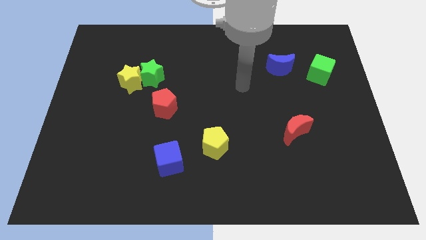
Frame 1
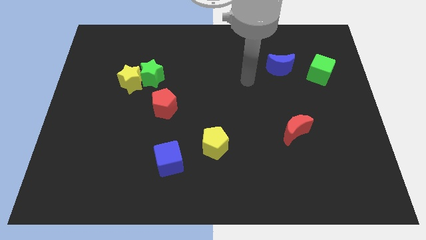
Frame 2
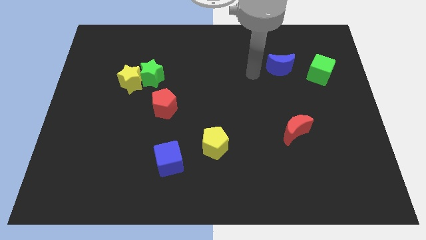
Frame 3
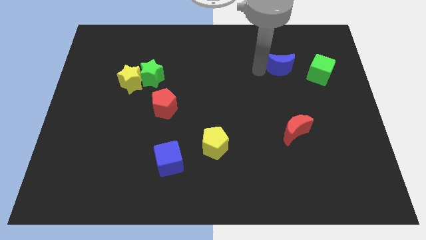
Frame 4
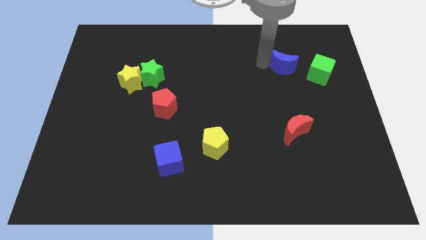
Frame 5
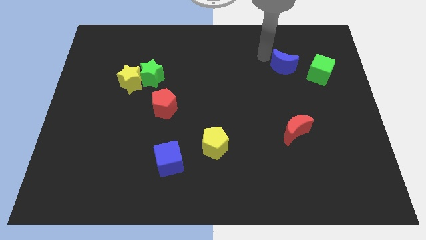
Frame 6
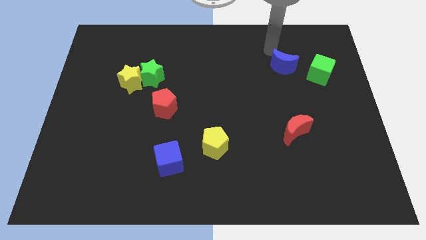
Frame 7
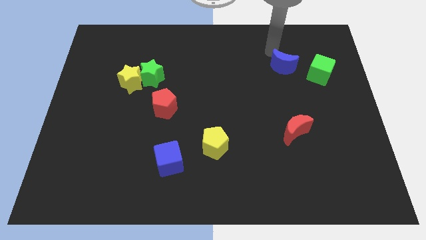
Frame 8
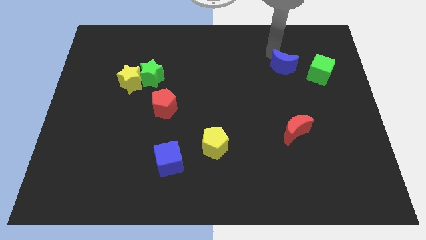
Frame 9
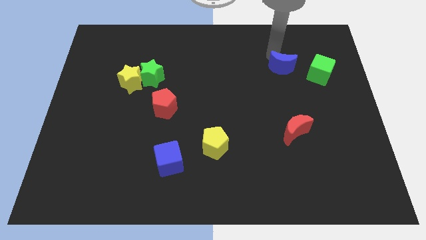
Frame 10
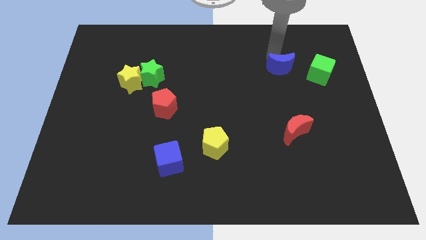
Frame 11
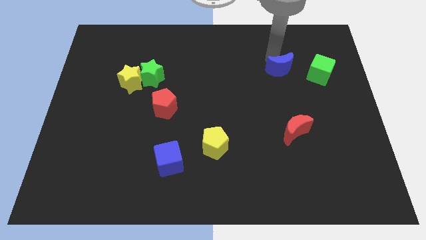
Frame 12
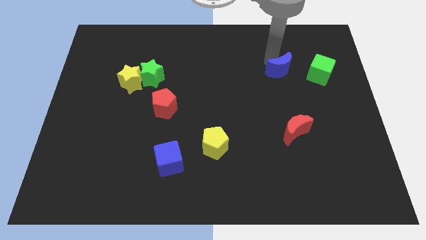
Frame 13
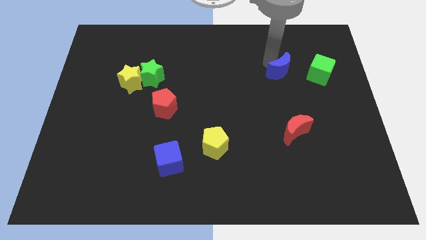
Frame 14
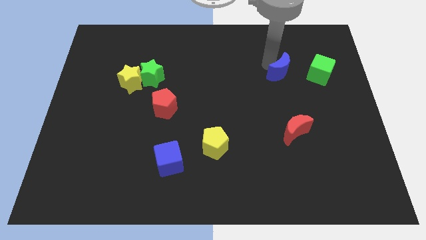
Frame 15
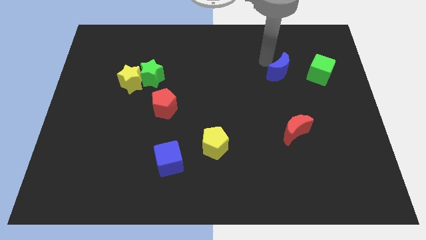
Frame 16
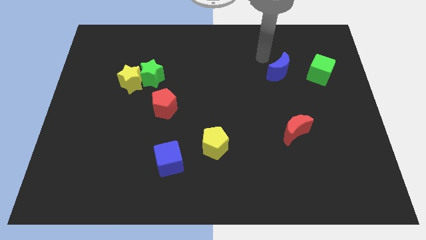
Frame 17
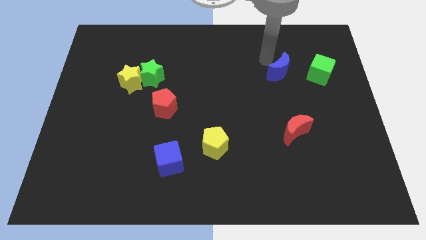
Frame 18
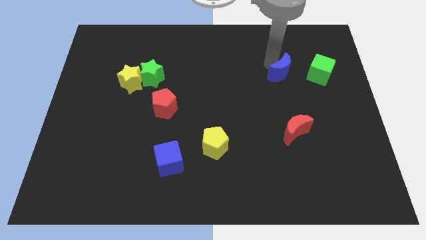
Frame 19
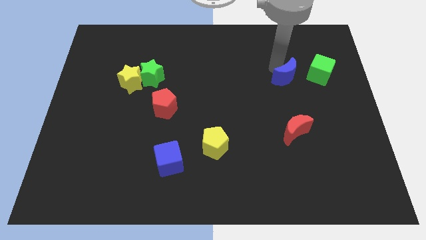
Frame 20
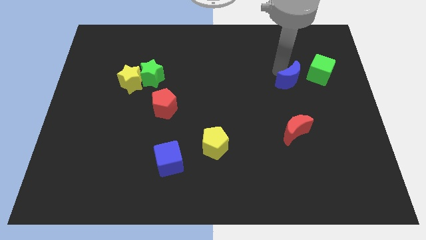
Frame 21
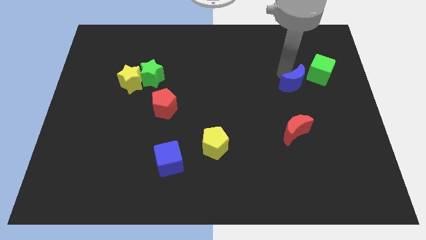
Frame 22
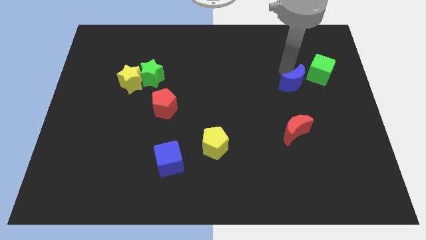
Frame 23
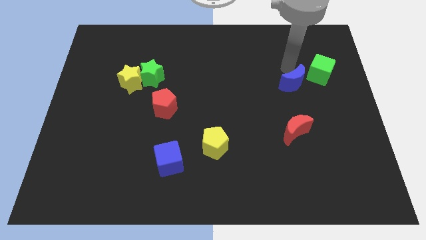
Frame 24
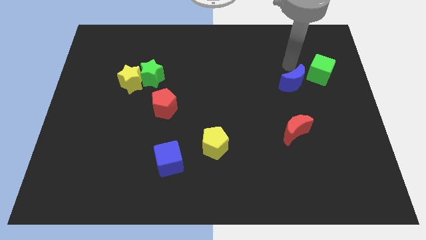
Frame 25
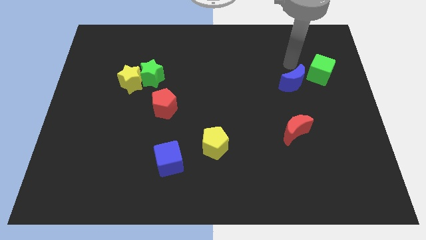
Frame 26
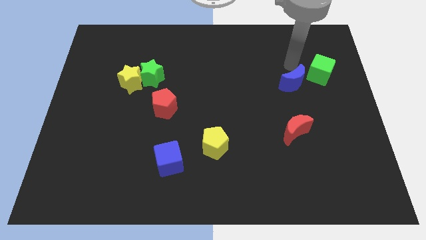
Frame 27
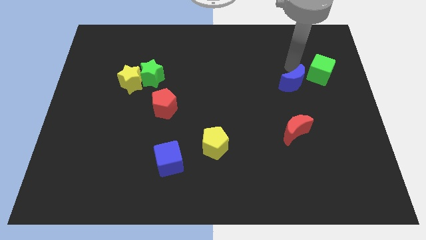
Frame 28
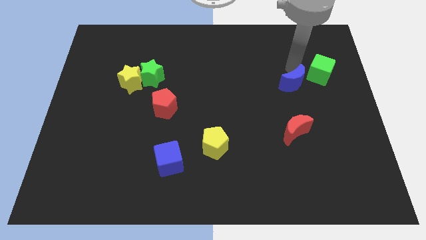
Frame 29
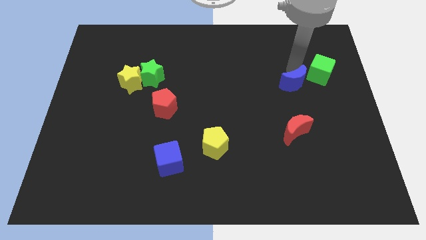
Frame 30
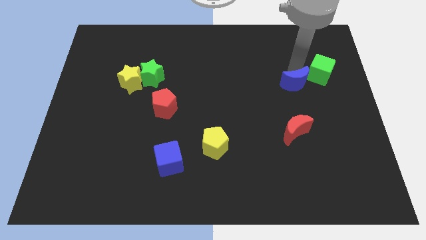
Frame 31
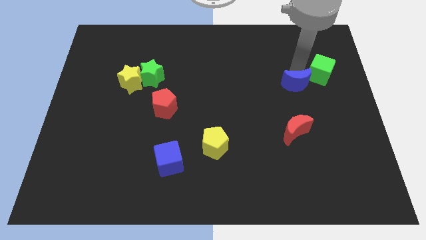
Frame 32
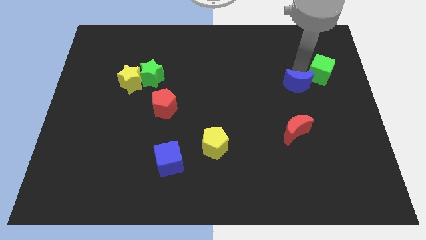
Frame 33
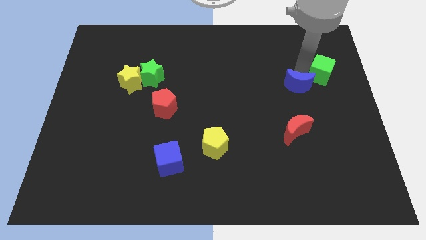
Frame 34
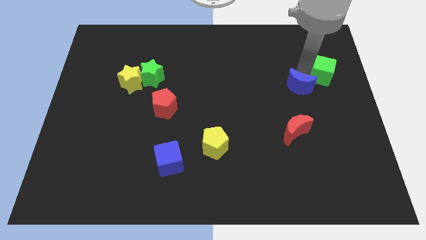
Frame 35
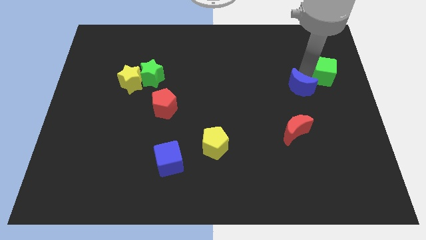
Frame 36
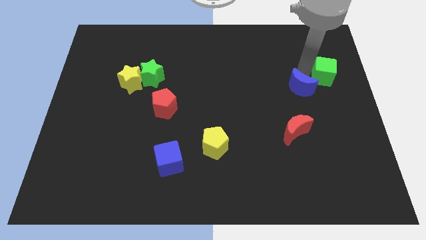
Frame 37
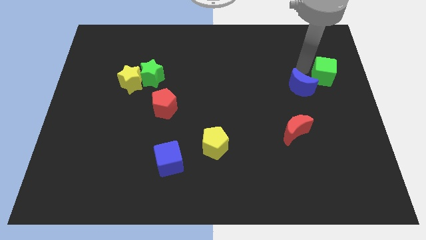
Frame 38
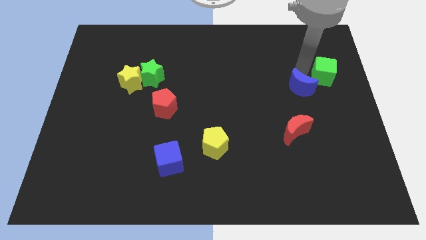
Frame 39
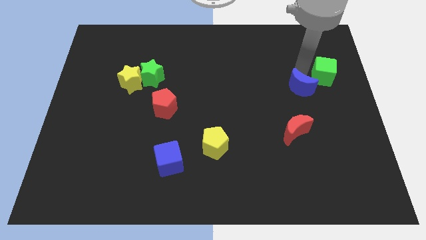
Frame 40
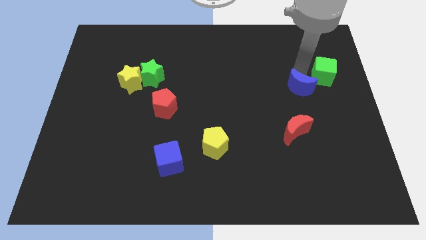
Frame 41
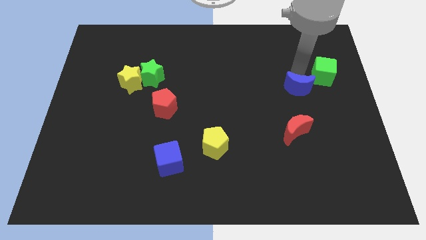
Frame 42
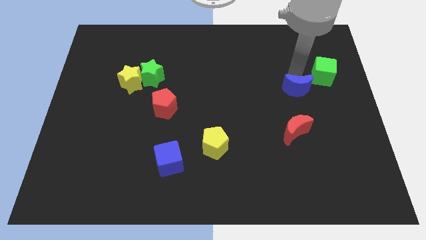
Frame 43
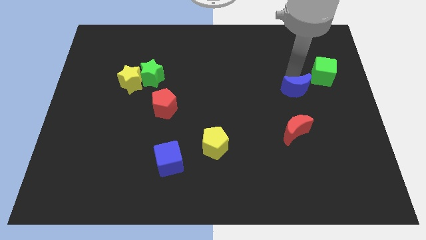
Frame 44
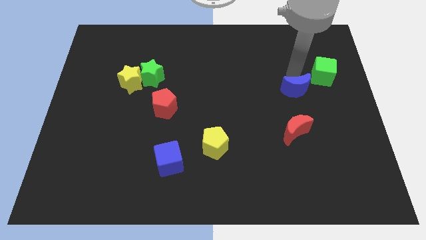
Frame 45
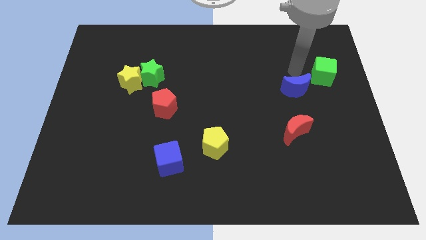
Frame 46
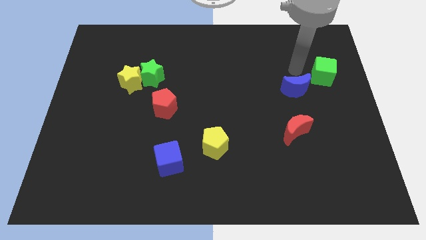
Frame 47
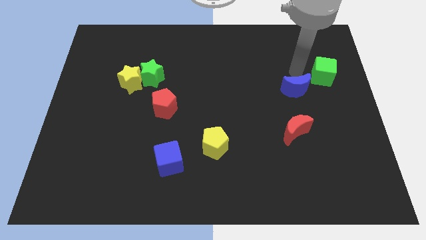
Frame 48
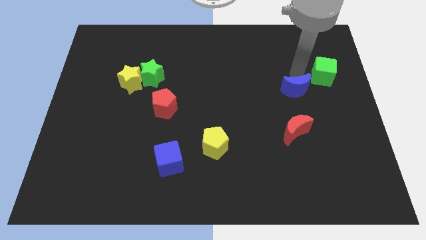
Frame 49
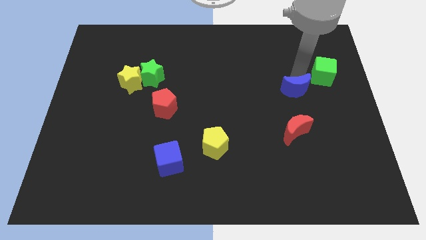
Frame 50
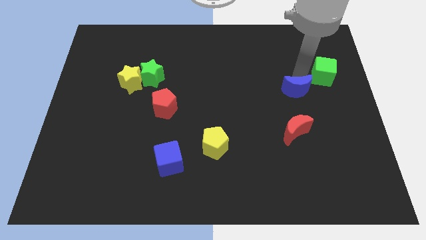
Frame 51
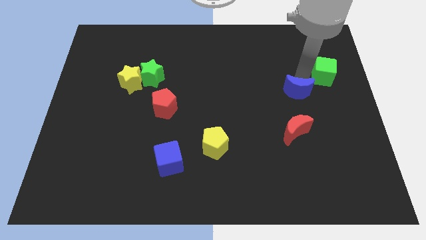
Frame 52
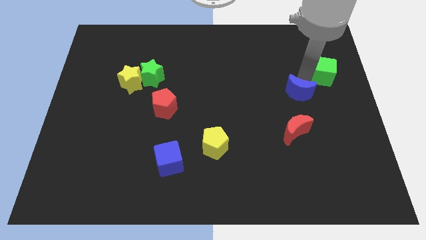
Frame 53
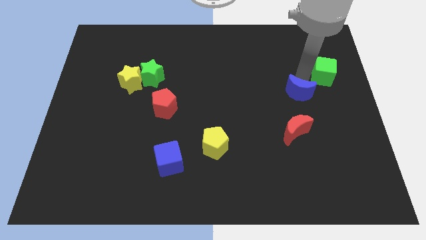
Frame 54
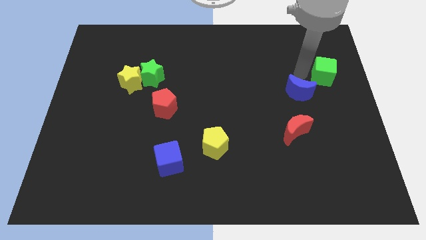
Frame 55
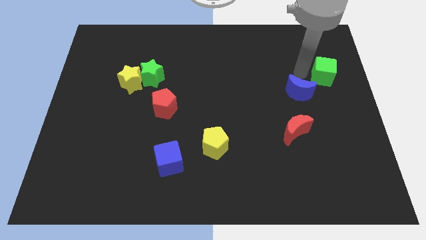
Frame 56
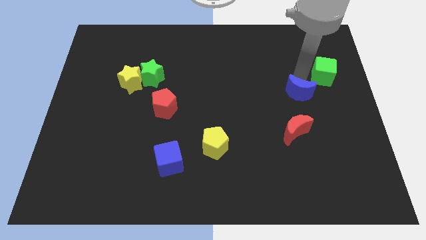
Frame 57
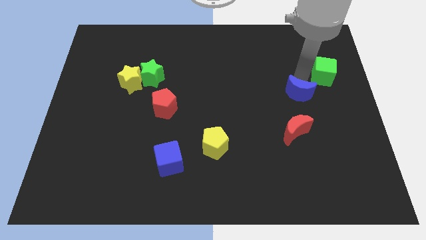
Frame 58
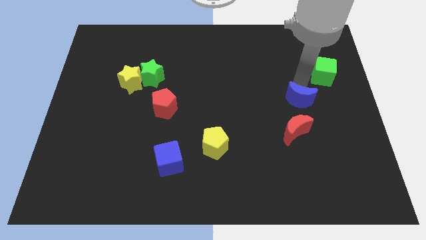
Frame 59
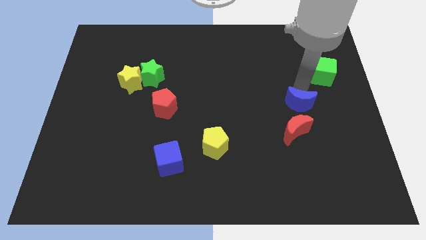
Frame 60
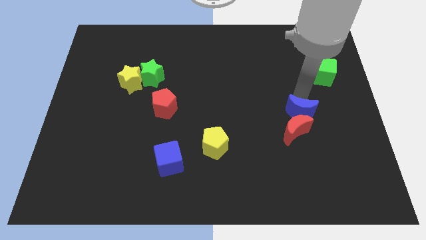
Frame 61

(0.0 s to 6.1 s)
move the blue moon towards the red moon

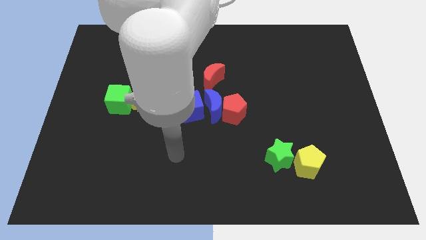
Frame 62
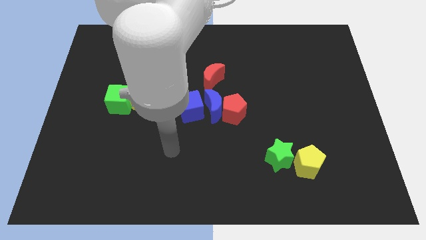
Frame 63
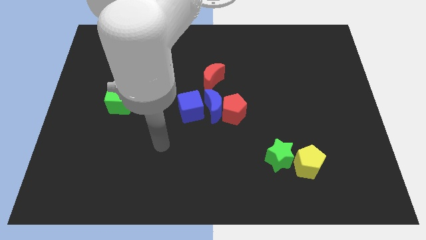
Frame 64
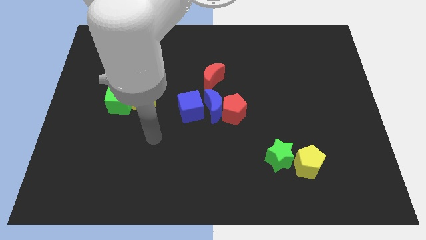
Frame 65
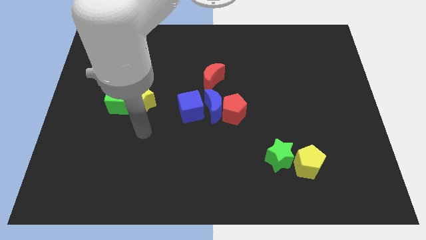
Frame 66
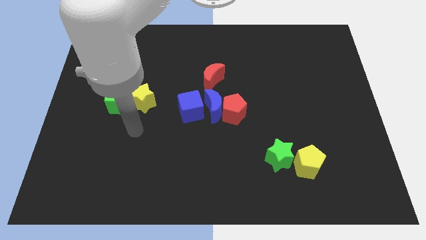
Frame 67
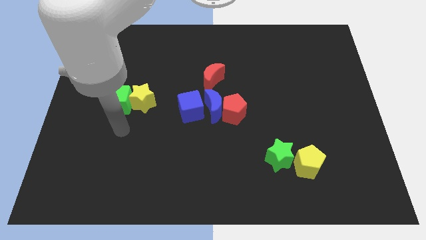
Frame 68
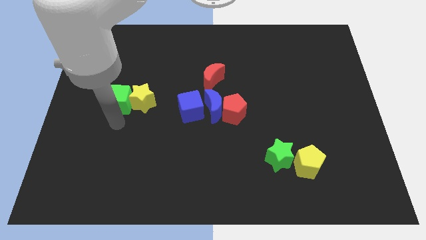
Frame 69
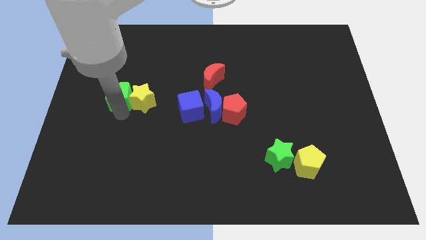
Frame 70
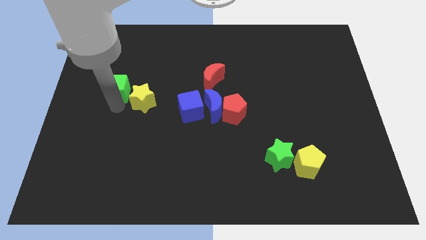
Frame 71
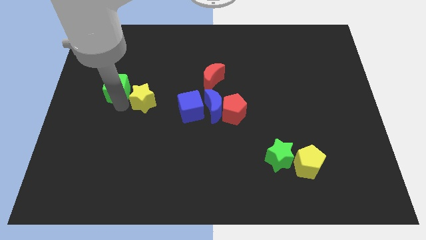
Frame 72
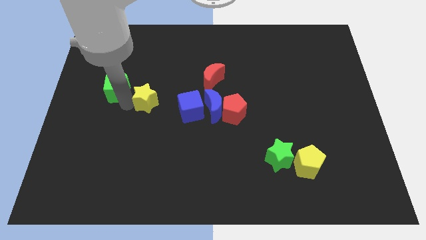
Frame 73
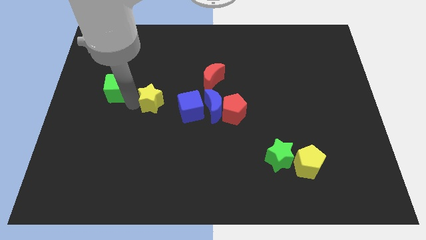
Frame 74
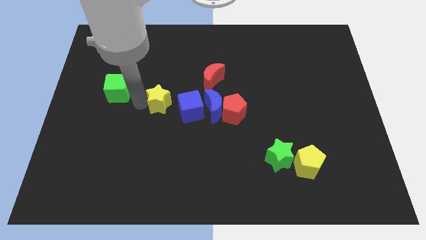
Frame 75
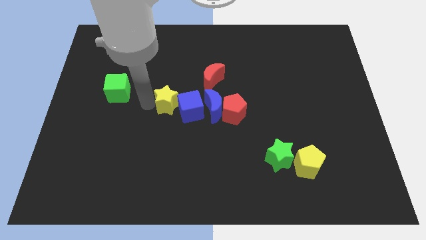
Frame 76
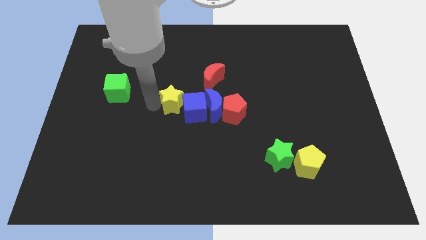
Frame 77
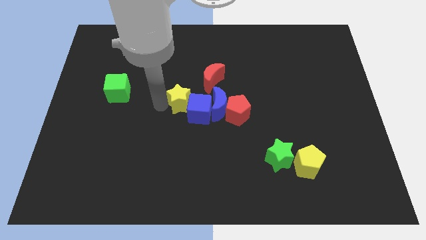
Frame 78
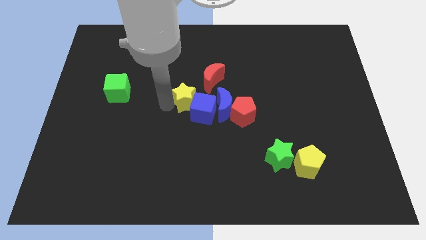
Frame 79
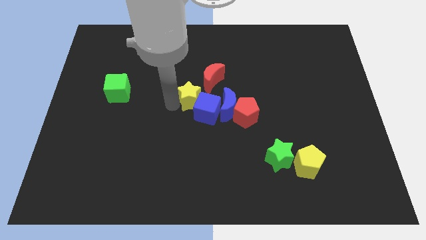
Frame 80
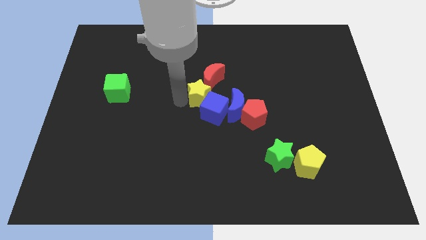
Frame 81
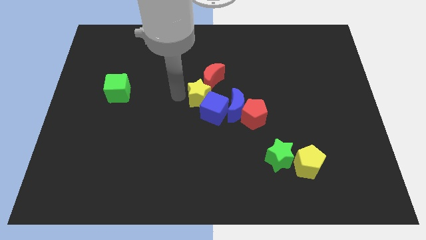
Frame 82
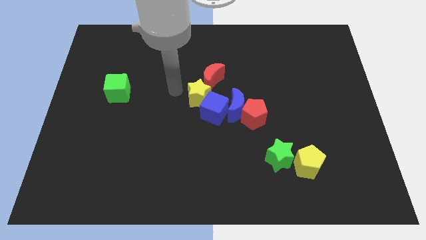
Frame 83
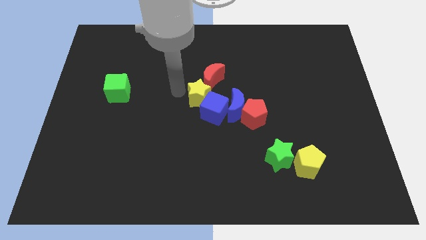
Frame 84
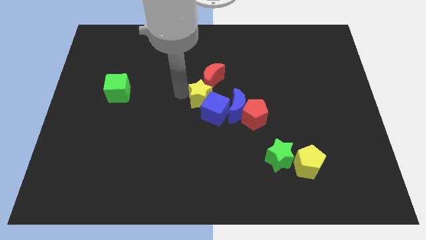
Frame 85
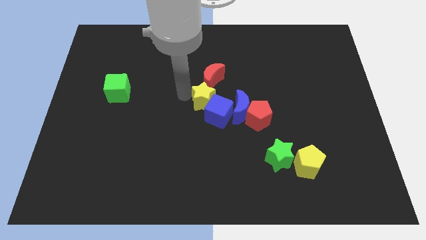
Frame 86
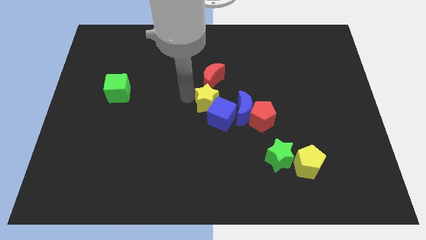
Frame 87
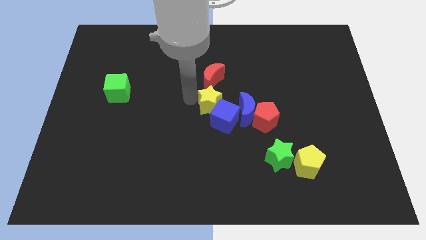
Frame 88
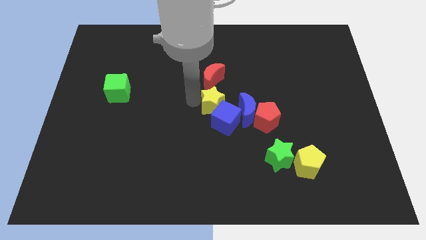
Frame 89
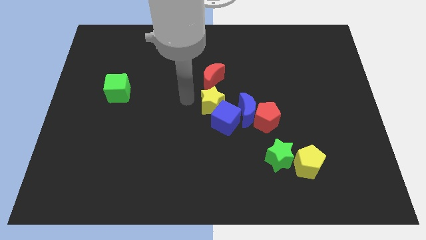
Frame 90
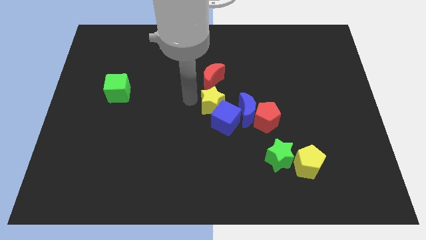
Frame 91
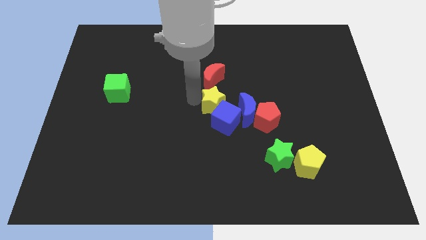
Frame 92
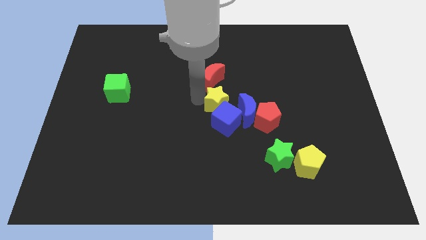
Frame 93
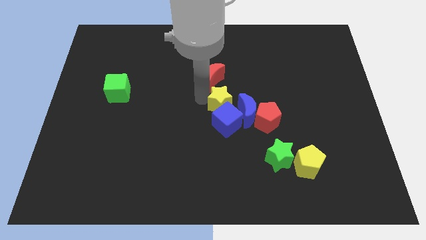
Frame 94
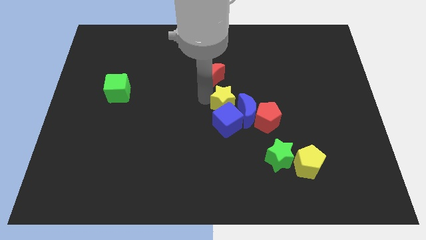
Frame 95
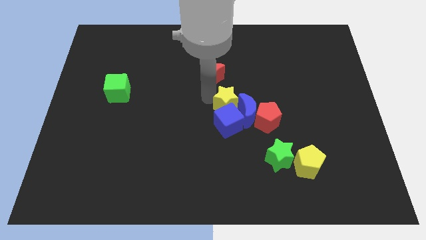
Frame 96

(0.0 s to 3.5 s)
push the yellow star close to the blue moon
